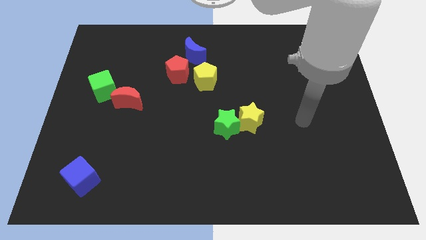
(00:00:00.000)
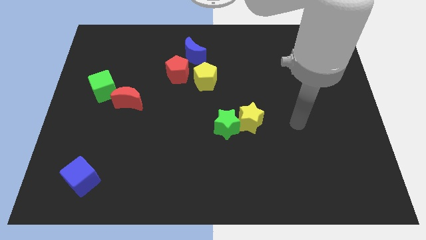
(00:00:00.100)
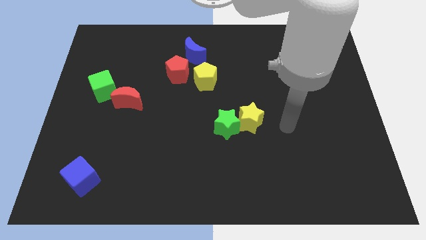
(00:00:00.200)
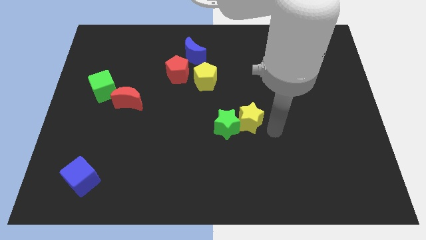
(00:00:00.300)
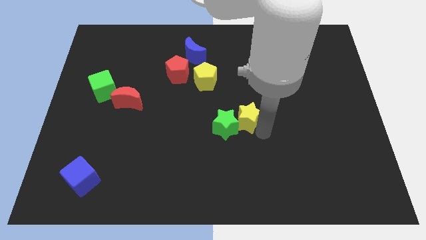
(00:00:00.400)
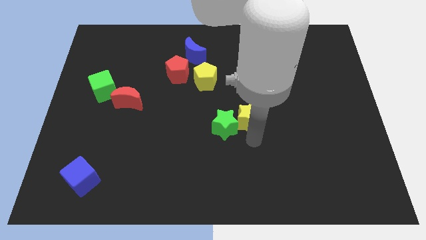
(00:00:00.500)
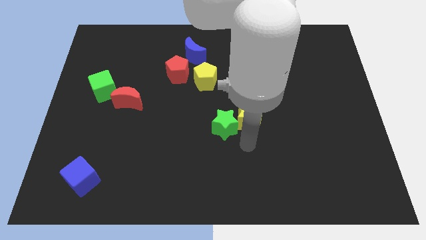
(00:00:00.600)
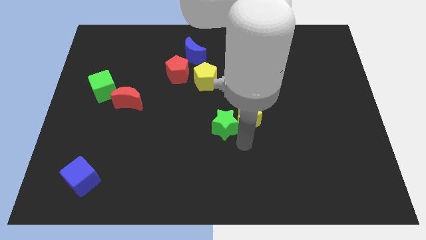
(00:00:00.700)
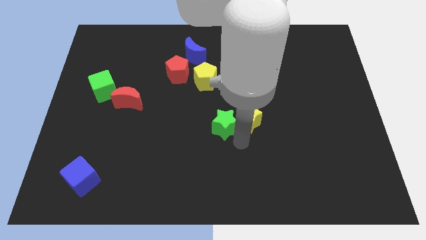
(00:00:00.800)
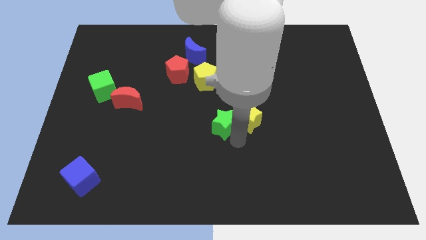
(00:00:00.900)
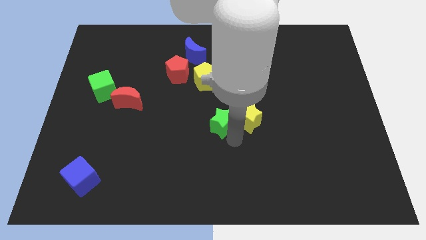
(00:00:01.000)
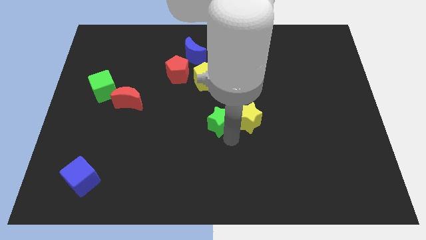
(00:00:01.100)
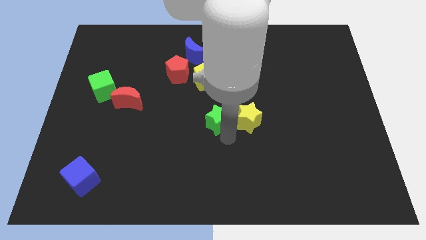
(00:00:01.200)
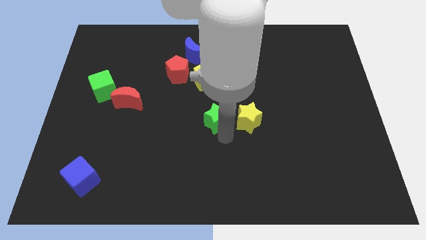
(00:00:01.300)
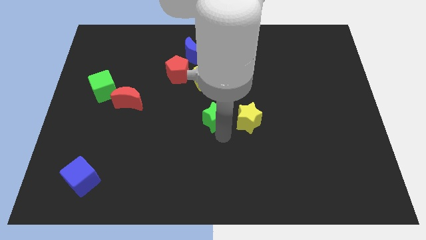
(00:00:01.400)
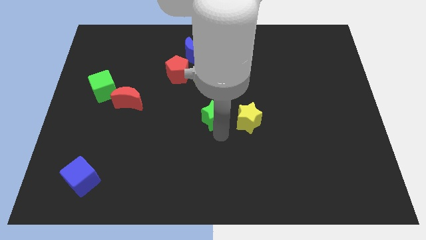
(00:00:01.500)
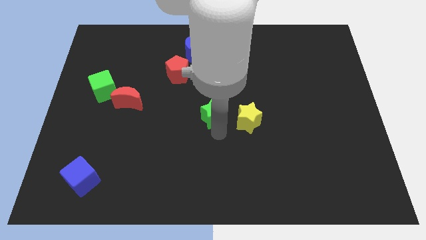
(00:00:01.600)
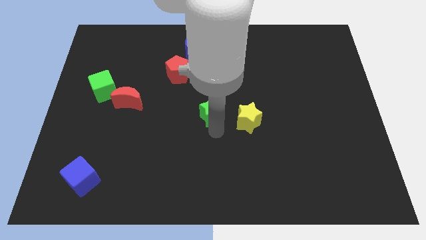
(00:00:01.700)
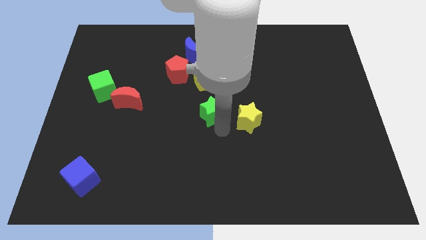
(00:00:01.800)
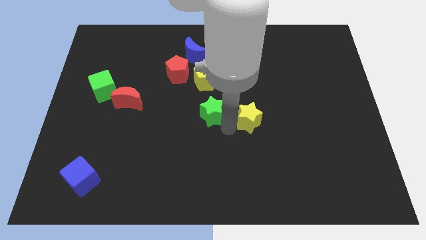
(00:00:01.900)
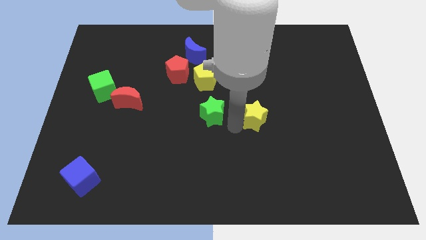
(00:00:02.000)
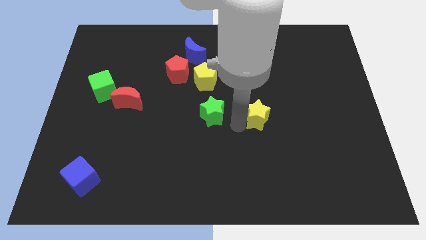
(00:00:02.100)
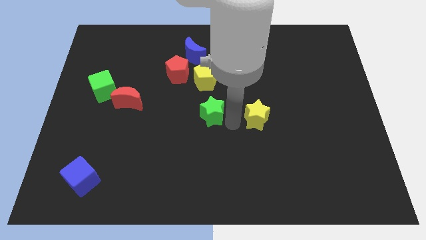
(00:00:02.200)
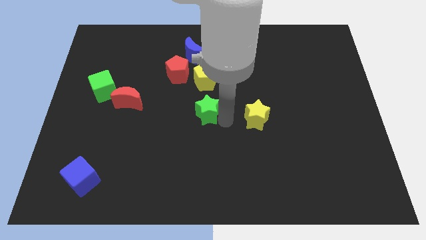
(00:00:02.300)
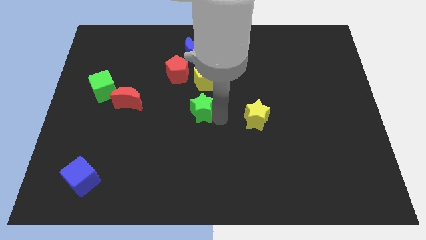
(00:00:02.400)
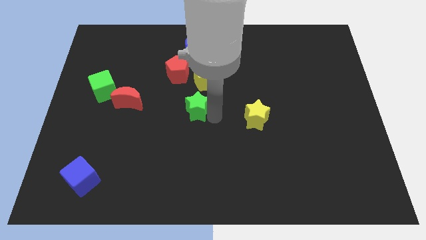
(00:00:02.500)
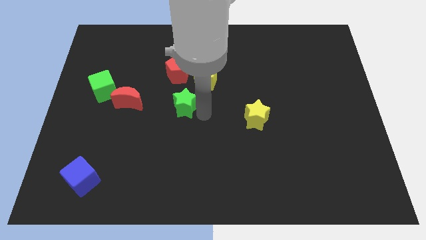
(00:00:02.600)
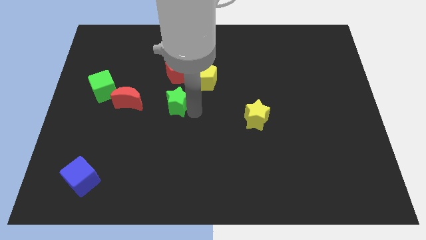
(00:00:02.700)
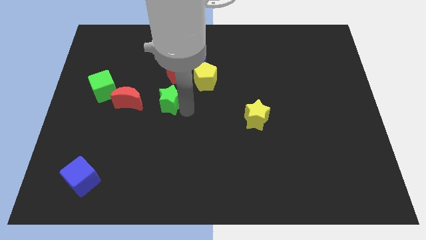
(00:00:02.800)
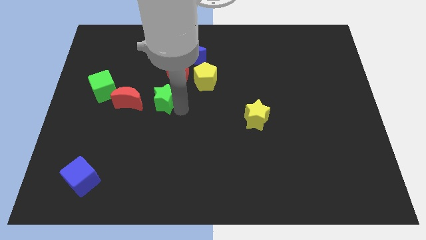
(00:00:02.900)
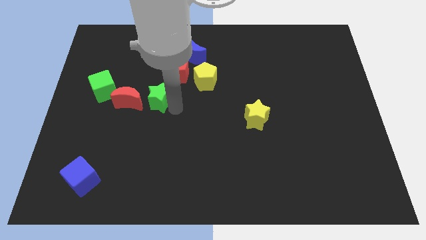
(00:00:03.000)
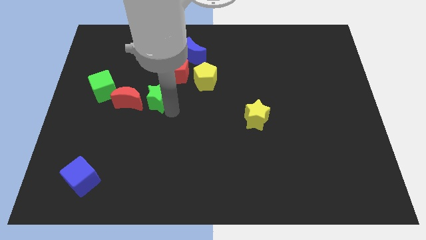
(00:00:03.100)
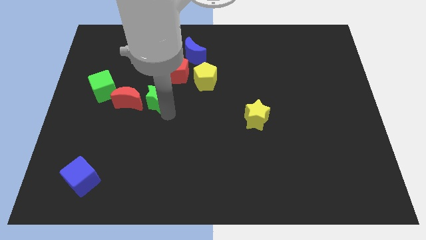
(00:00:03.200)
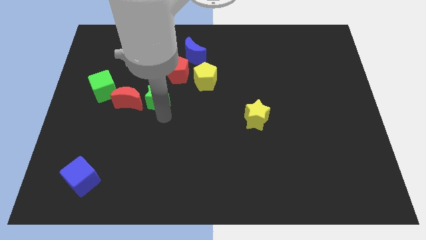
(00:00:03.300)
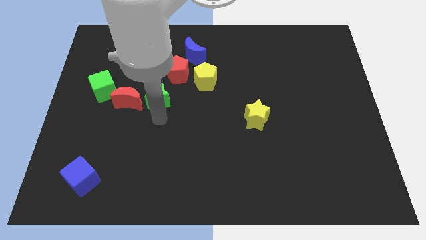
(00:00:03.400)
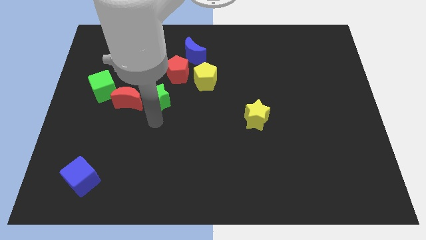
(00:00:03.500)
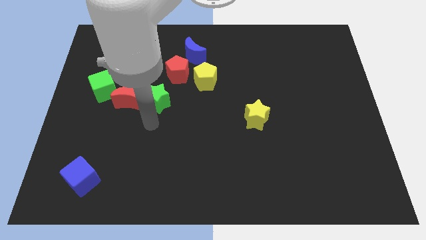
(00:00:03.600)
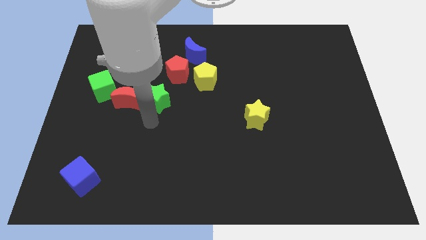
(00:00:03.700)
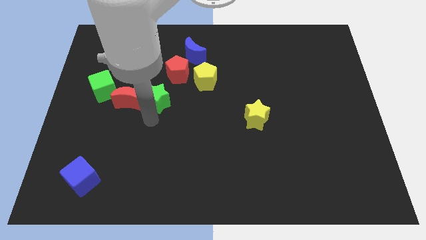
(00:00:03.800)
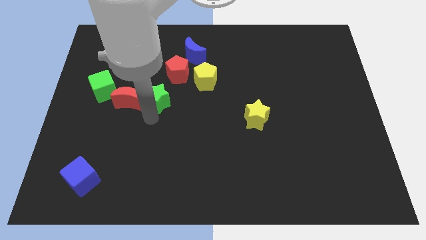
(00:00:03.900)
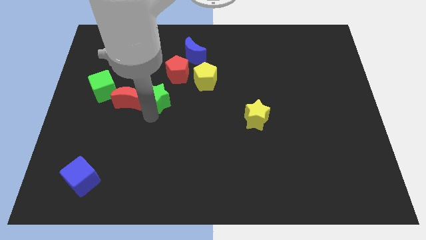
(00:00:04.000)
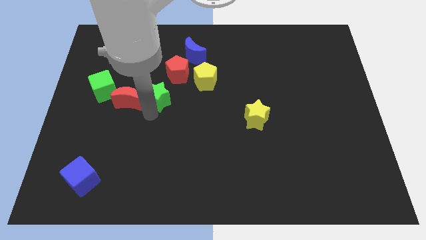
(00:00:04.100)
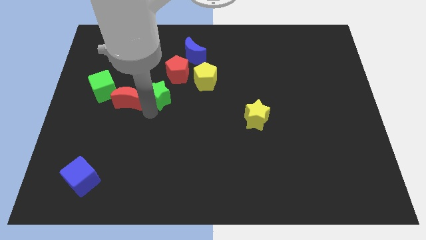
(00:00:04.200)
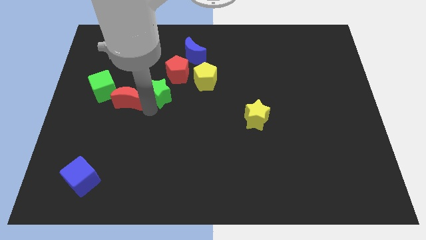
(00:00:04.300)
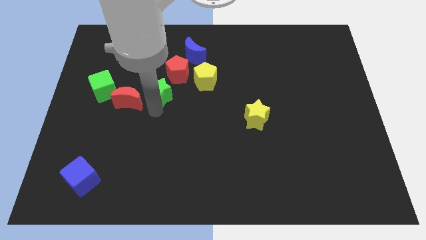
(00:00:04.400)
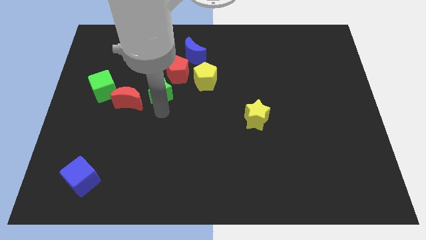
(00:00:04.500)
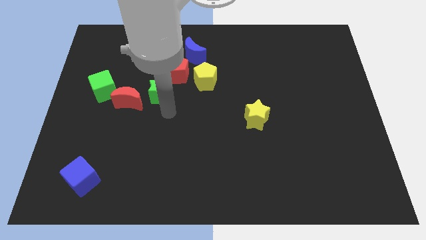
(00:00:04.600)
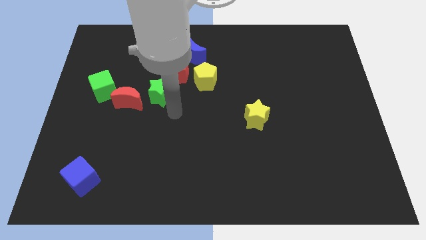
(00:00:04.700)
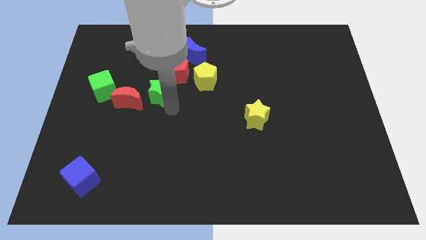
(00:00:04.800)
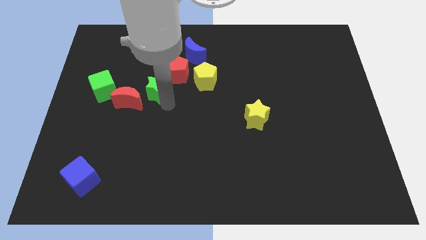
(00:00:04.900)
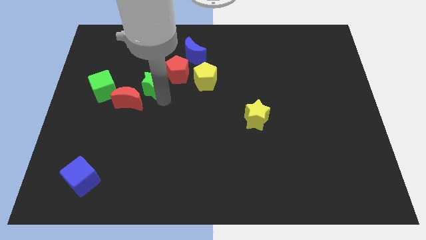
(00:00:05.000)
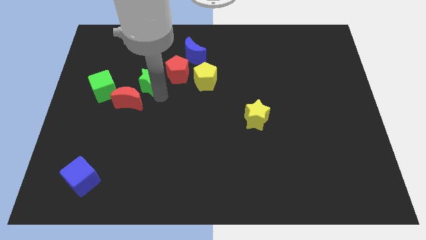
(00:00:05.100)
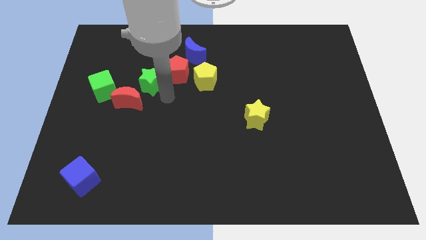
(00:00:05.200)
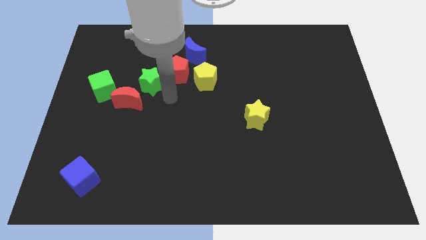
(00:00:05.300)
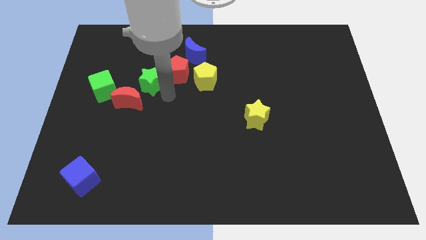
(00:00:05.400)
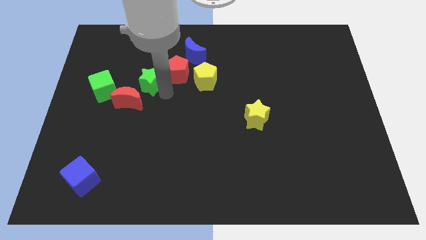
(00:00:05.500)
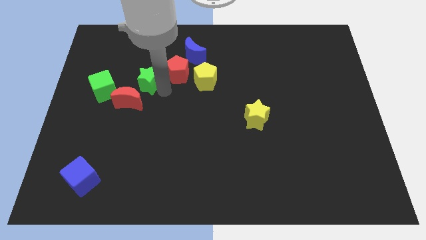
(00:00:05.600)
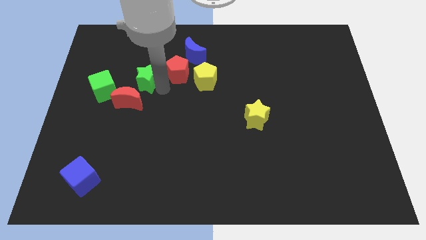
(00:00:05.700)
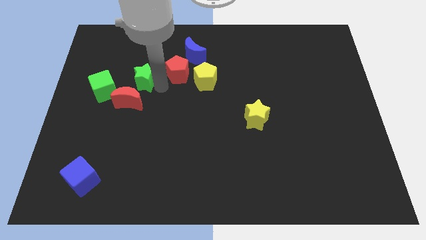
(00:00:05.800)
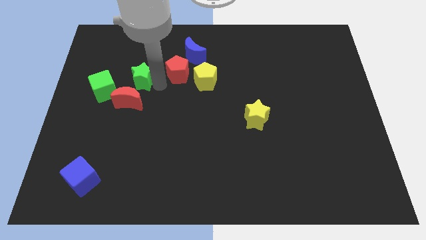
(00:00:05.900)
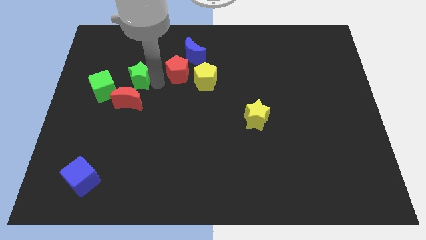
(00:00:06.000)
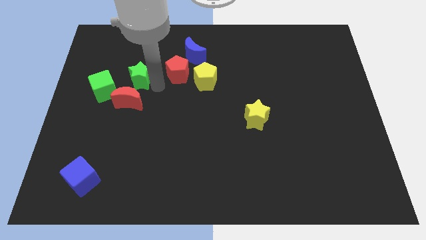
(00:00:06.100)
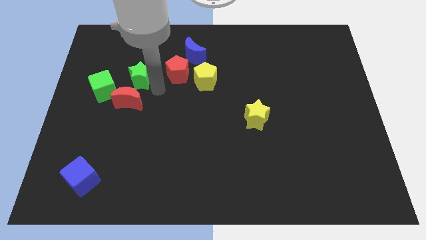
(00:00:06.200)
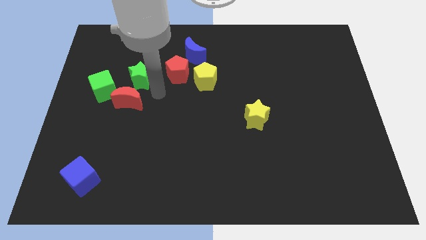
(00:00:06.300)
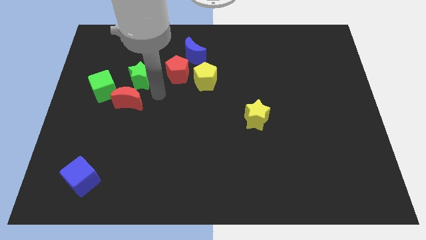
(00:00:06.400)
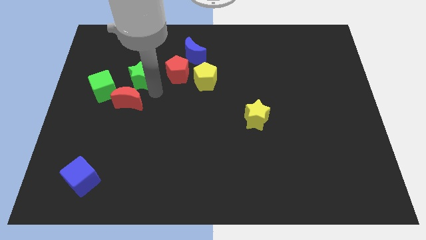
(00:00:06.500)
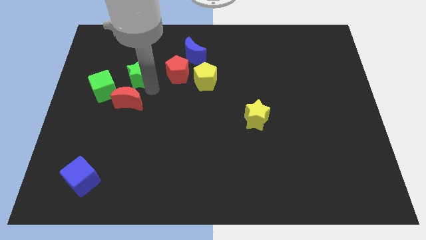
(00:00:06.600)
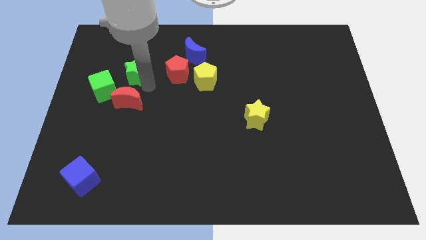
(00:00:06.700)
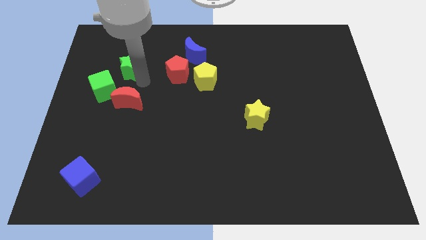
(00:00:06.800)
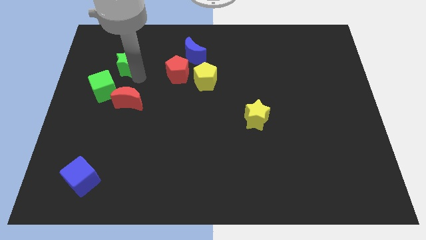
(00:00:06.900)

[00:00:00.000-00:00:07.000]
move the green star above the green cube
